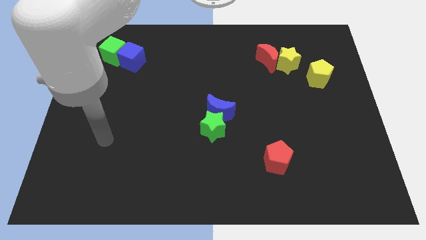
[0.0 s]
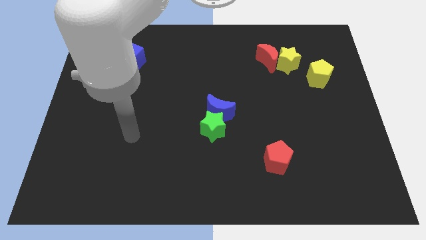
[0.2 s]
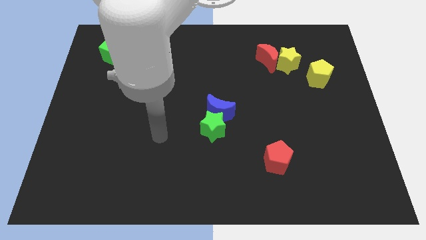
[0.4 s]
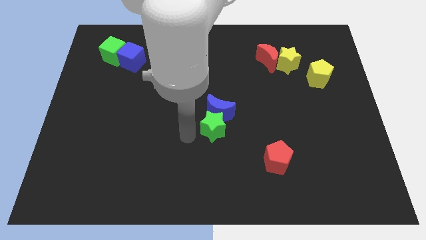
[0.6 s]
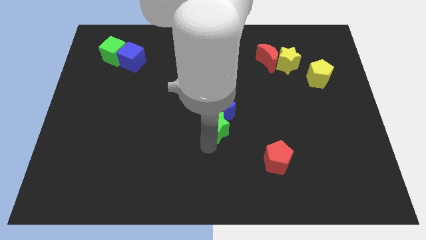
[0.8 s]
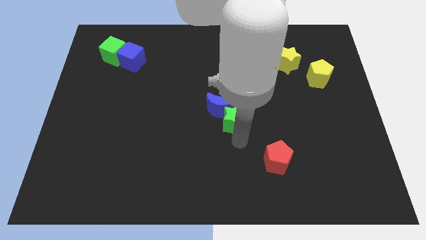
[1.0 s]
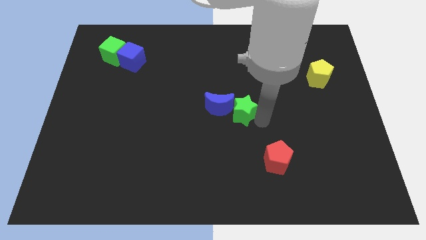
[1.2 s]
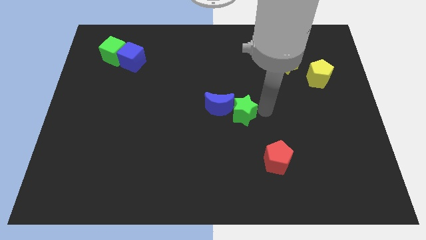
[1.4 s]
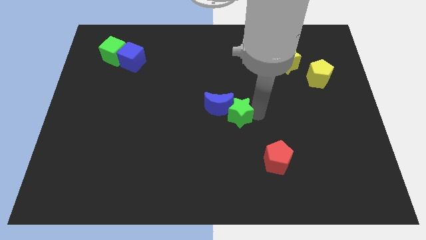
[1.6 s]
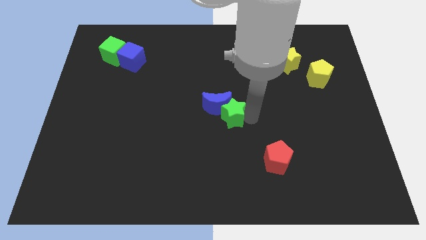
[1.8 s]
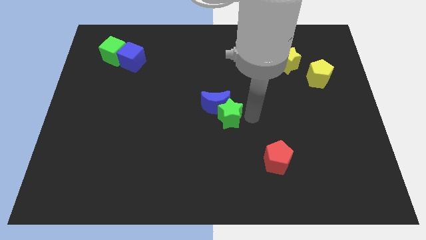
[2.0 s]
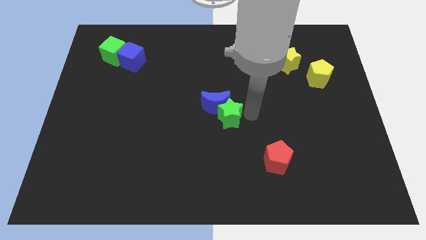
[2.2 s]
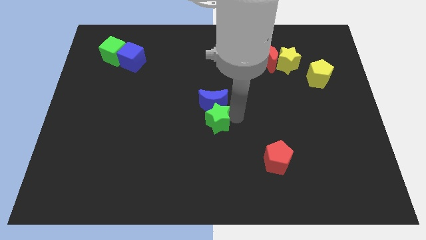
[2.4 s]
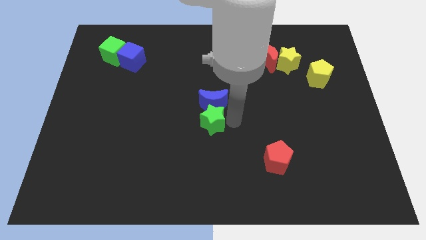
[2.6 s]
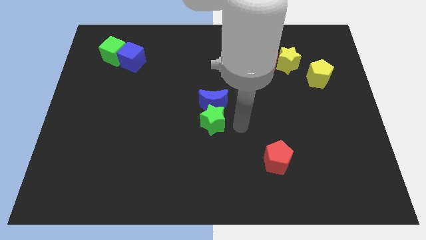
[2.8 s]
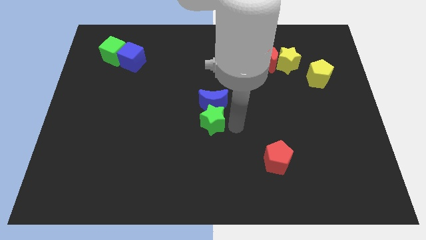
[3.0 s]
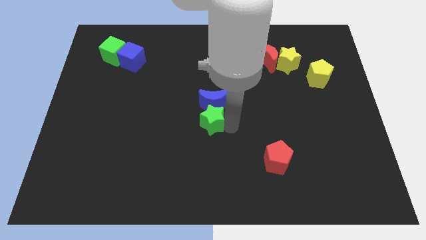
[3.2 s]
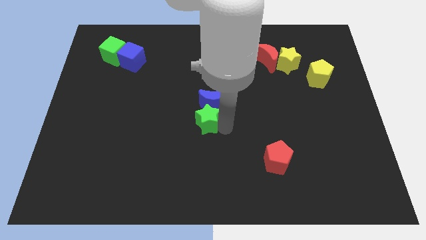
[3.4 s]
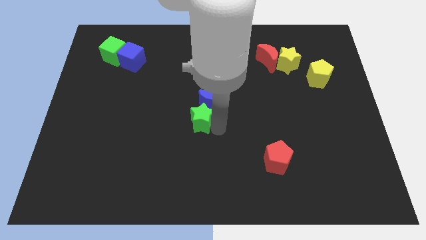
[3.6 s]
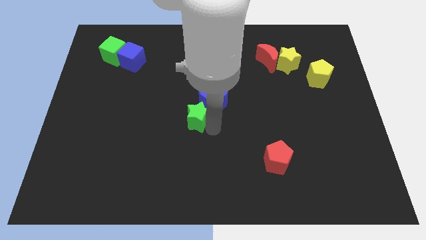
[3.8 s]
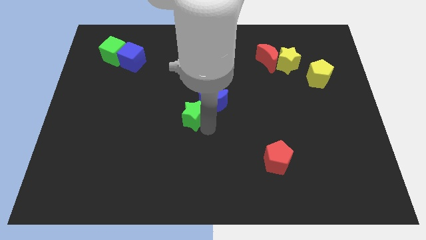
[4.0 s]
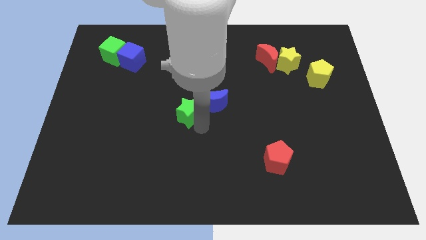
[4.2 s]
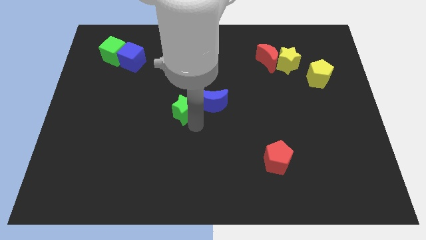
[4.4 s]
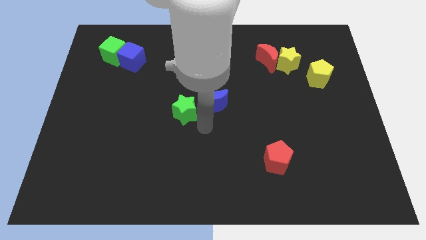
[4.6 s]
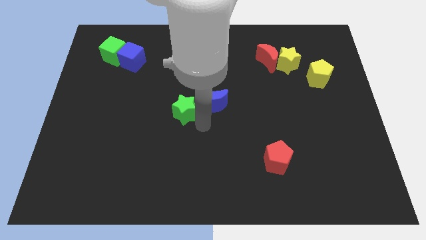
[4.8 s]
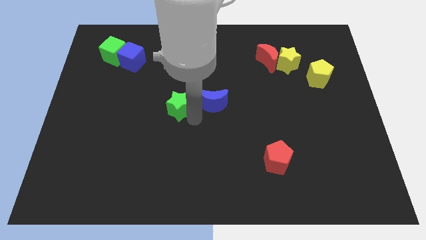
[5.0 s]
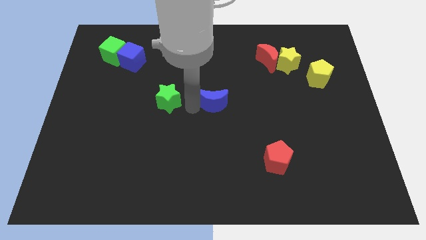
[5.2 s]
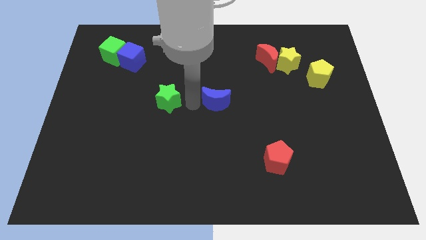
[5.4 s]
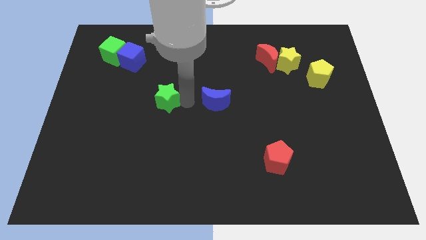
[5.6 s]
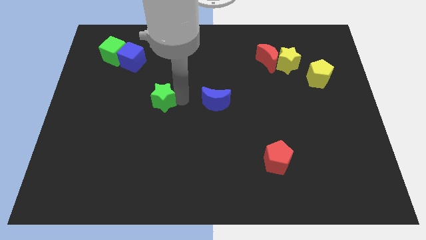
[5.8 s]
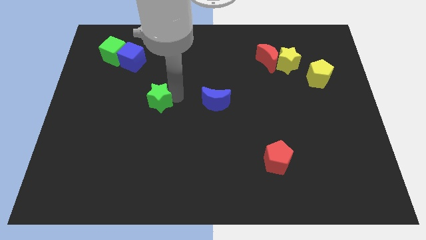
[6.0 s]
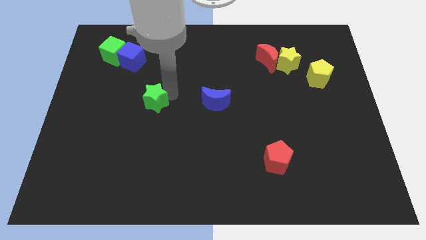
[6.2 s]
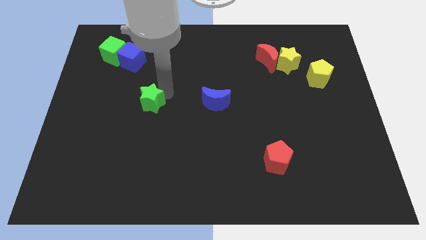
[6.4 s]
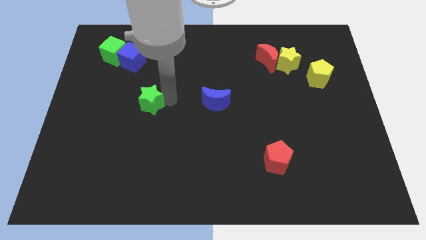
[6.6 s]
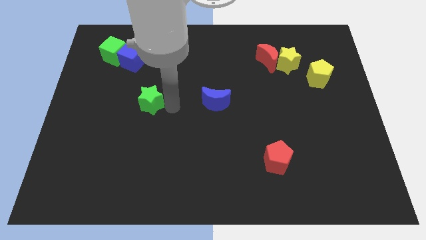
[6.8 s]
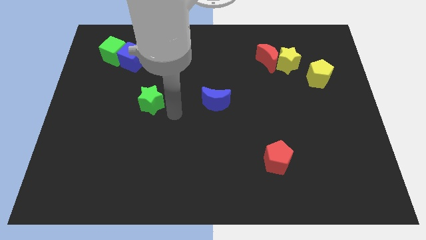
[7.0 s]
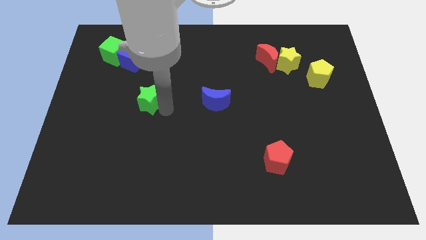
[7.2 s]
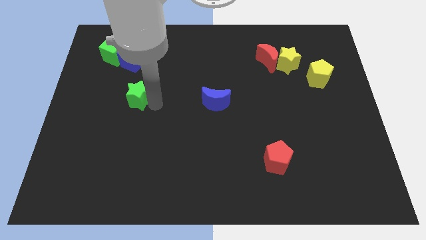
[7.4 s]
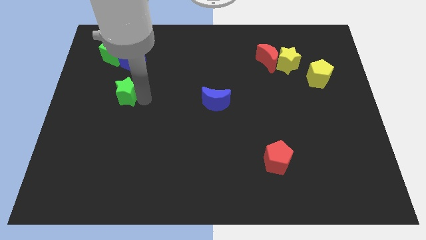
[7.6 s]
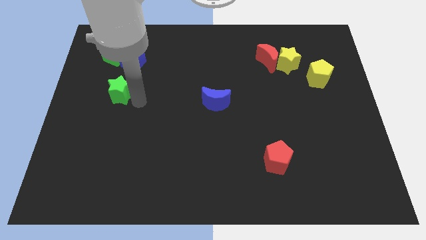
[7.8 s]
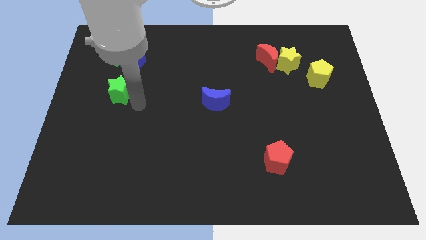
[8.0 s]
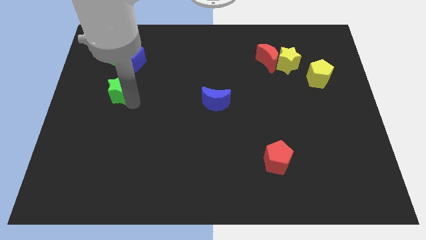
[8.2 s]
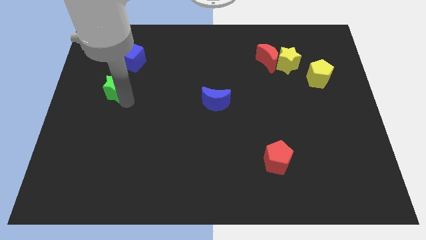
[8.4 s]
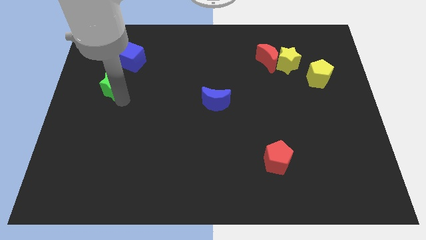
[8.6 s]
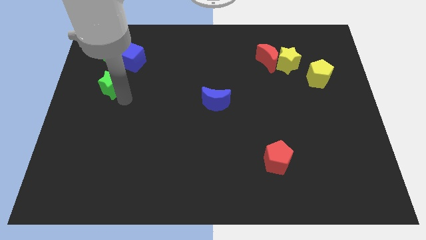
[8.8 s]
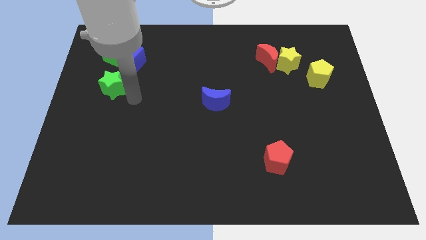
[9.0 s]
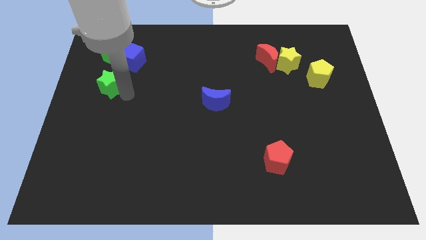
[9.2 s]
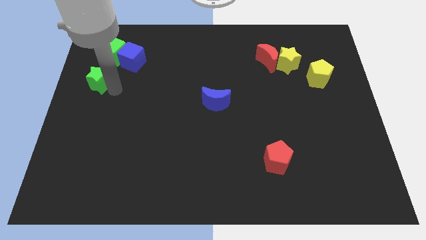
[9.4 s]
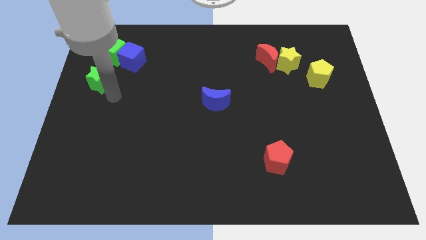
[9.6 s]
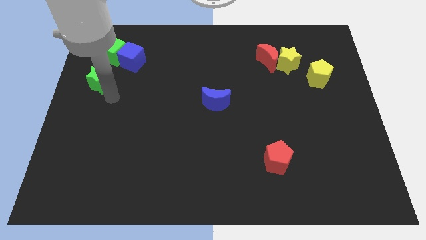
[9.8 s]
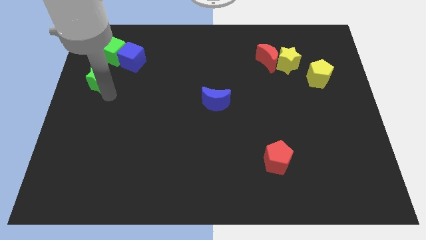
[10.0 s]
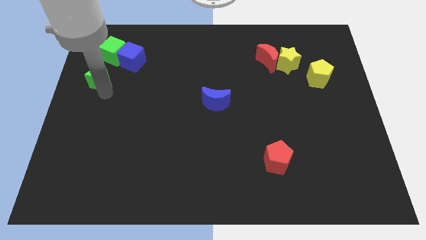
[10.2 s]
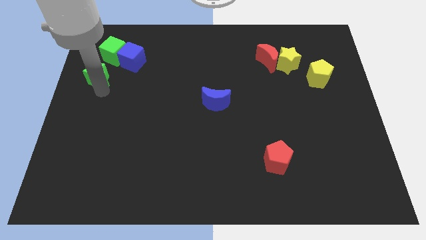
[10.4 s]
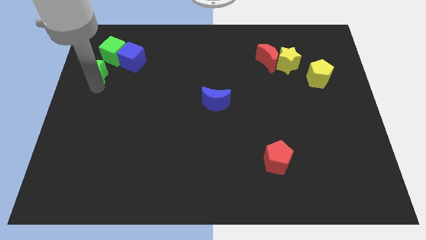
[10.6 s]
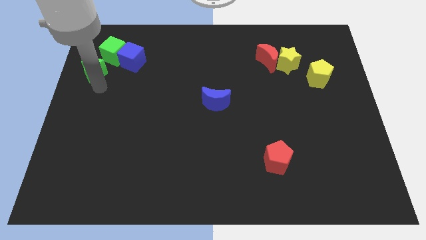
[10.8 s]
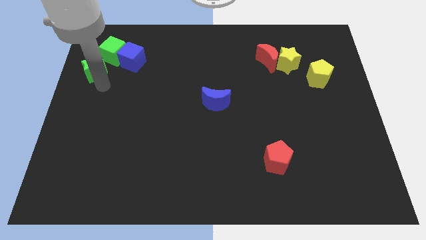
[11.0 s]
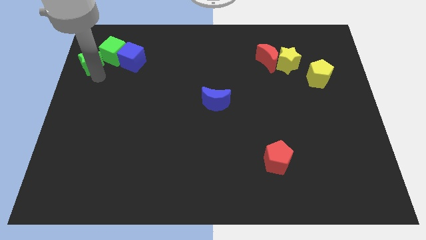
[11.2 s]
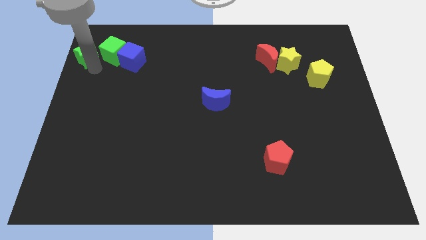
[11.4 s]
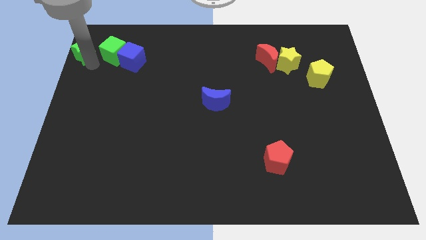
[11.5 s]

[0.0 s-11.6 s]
push the green star to the top left corner

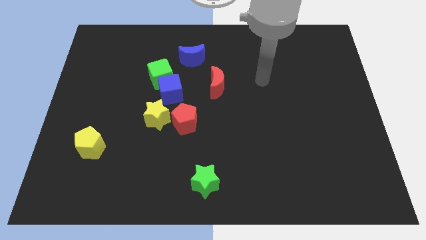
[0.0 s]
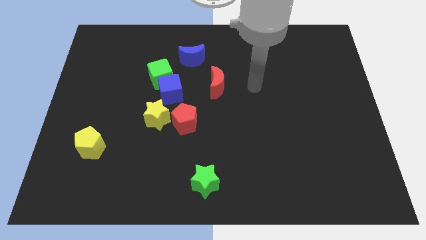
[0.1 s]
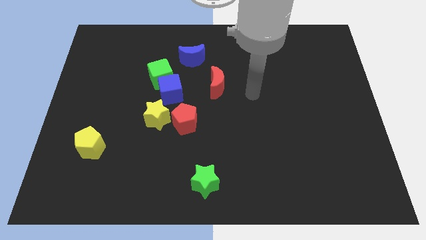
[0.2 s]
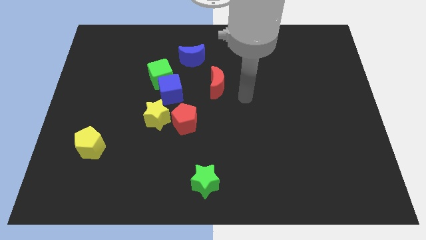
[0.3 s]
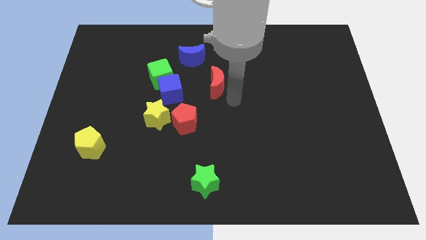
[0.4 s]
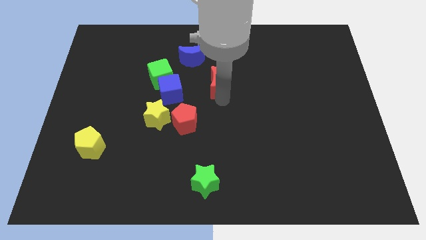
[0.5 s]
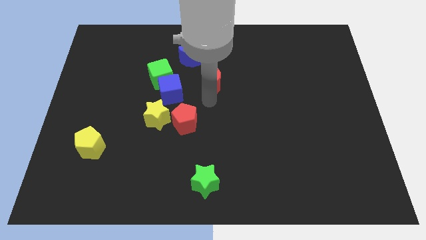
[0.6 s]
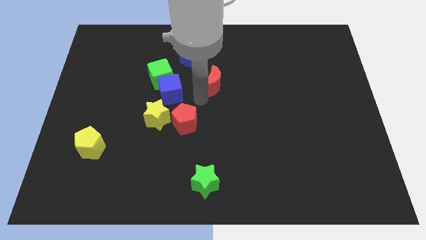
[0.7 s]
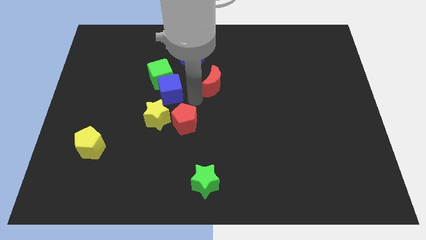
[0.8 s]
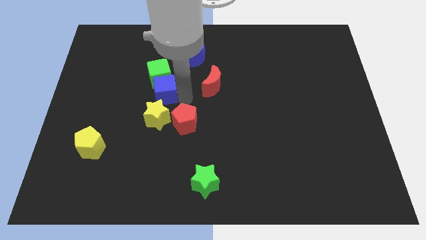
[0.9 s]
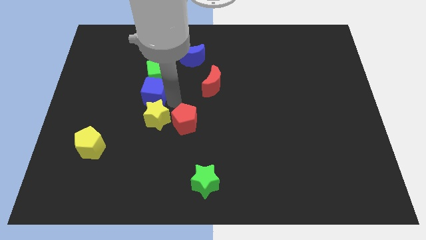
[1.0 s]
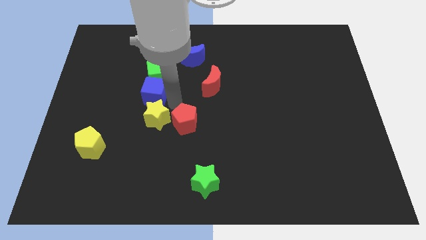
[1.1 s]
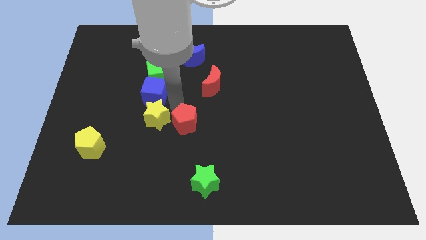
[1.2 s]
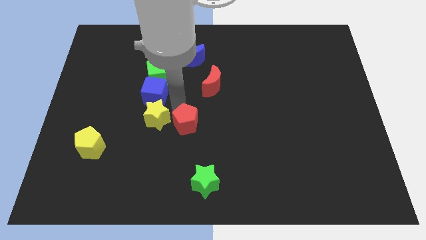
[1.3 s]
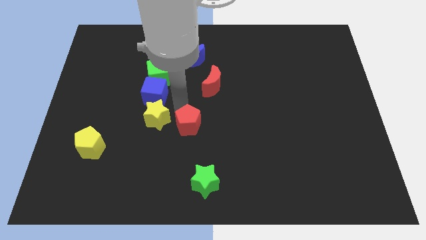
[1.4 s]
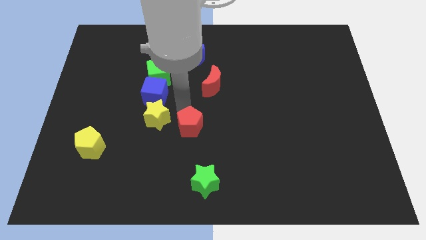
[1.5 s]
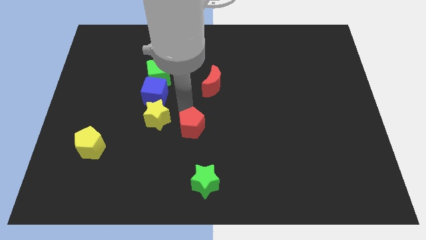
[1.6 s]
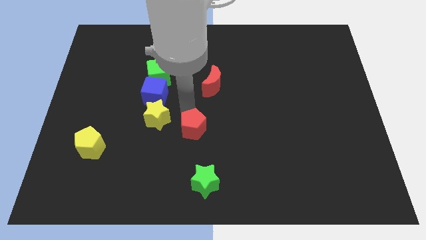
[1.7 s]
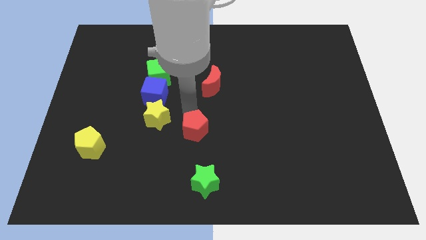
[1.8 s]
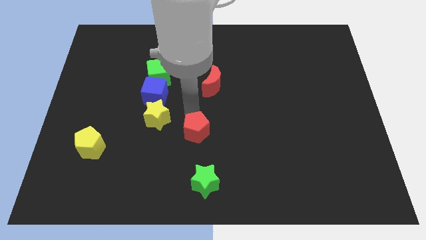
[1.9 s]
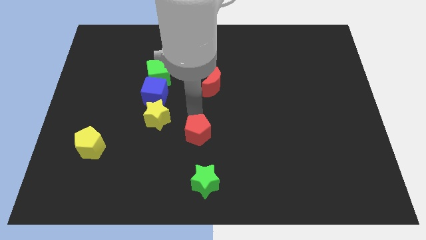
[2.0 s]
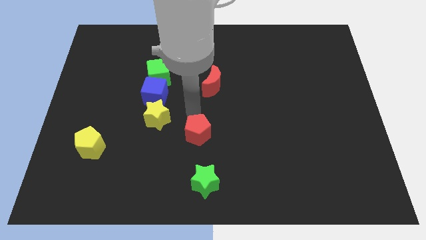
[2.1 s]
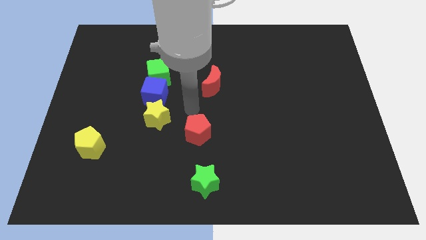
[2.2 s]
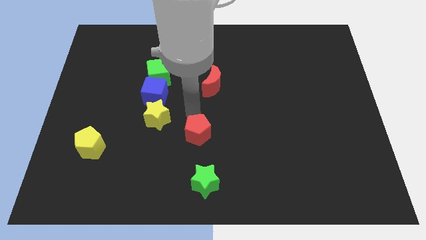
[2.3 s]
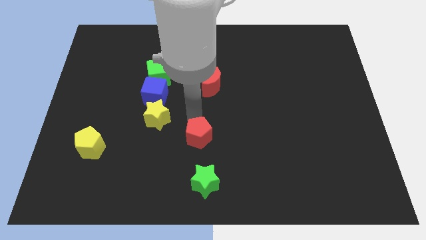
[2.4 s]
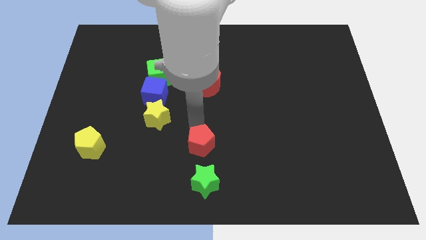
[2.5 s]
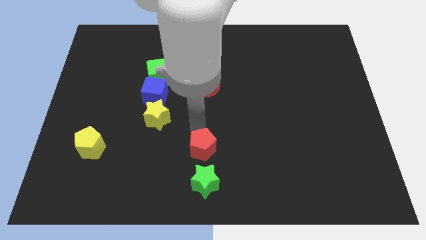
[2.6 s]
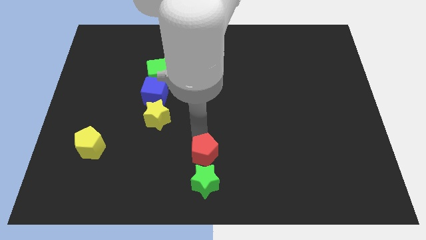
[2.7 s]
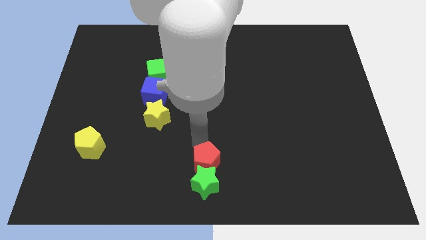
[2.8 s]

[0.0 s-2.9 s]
put the red pentagon to the bottom side
